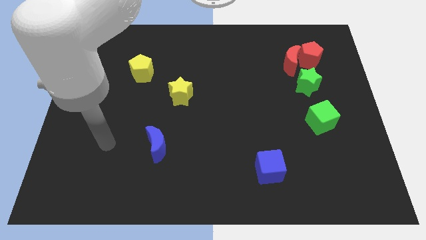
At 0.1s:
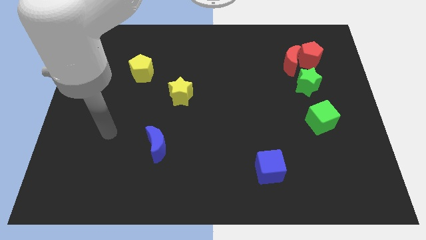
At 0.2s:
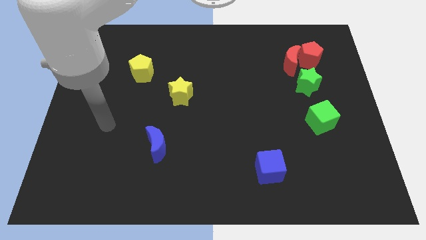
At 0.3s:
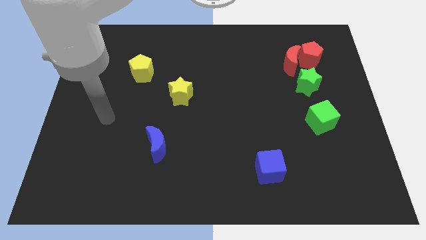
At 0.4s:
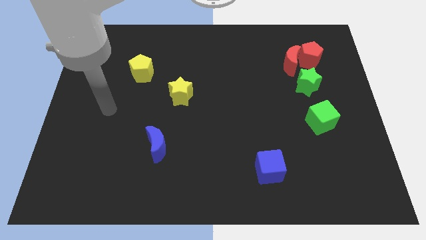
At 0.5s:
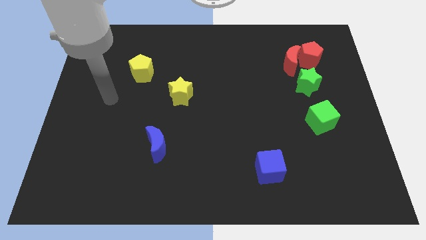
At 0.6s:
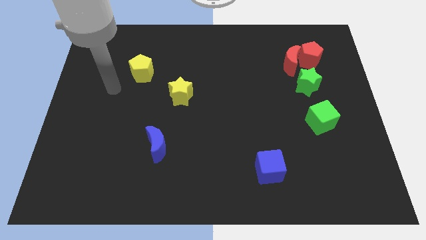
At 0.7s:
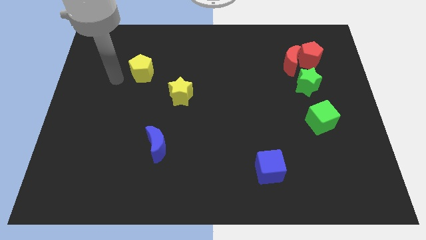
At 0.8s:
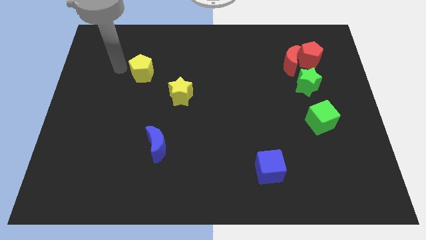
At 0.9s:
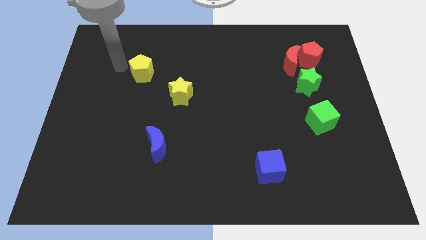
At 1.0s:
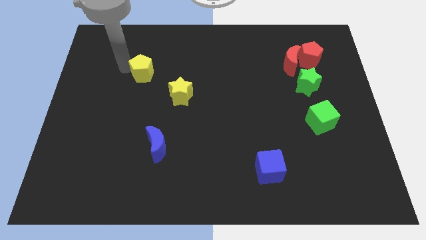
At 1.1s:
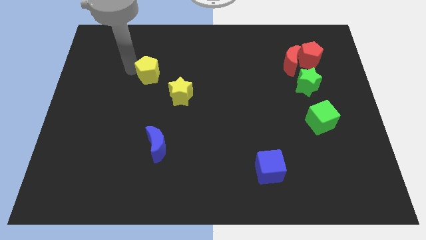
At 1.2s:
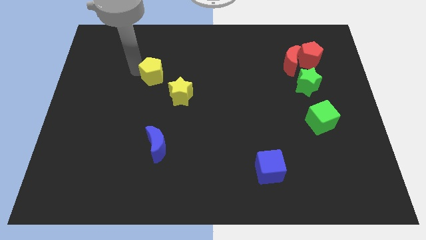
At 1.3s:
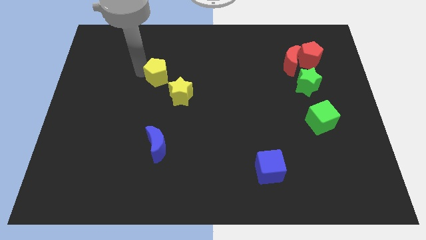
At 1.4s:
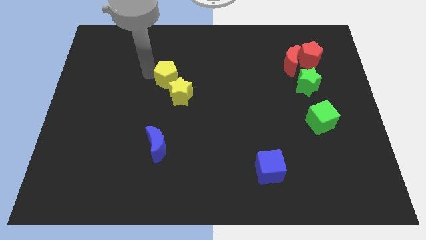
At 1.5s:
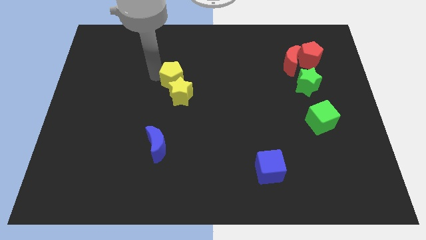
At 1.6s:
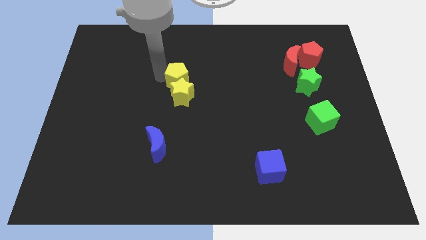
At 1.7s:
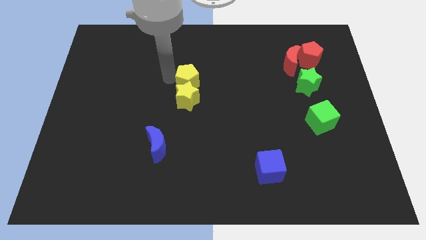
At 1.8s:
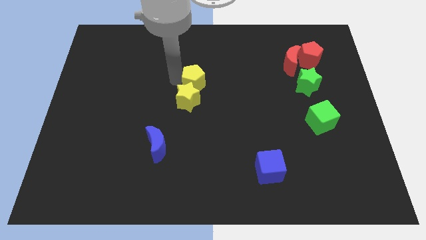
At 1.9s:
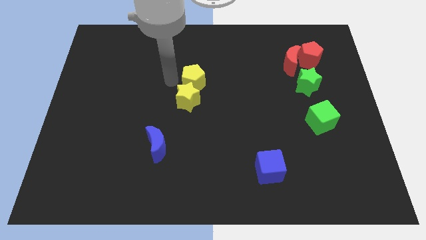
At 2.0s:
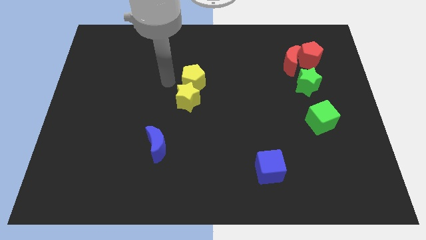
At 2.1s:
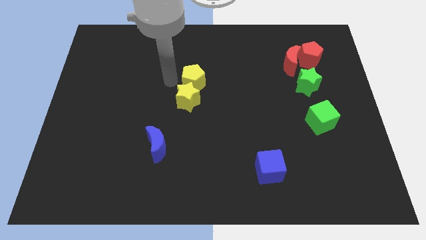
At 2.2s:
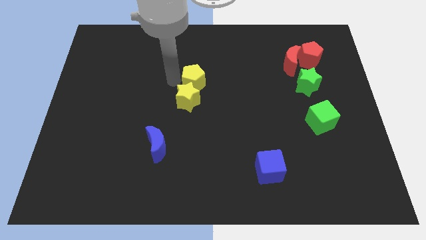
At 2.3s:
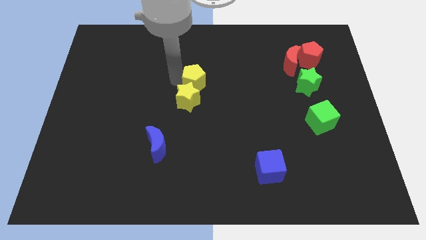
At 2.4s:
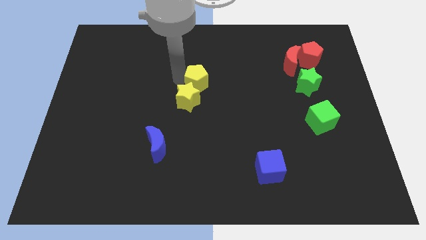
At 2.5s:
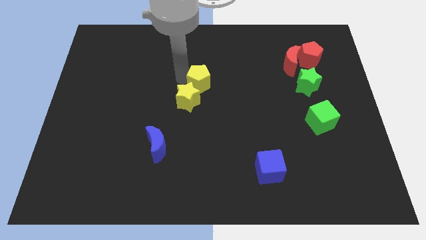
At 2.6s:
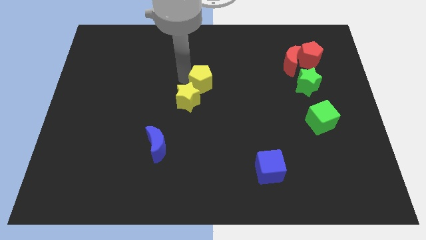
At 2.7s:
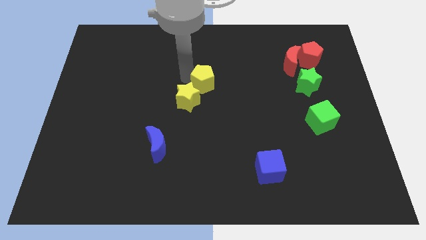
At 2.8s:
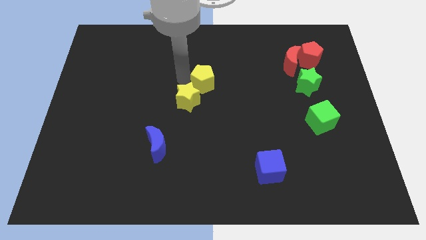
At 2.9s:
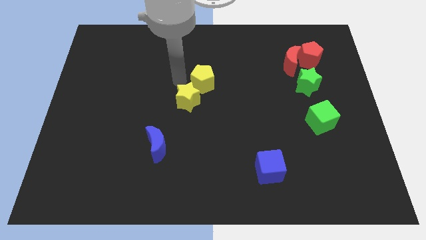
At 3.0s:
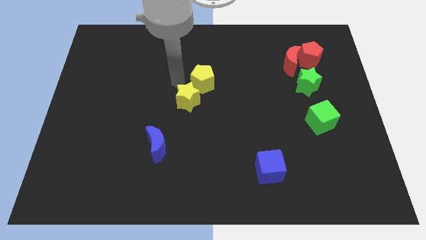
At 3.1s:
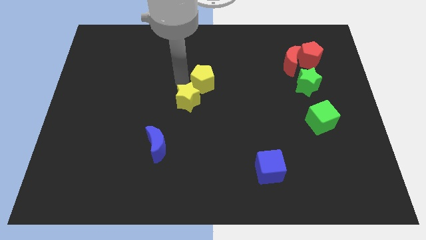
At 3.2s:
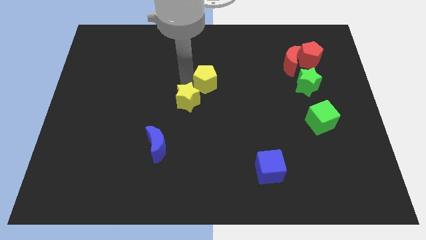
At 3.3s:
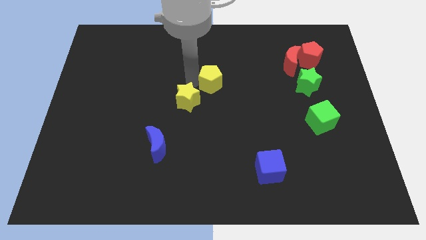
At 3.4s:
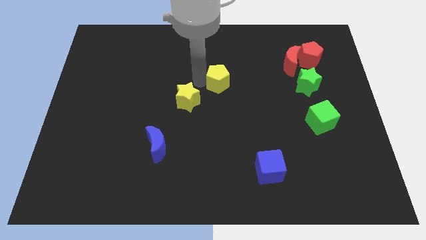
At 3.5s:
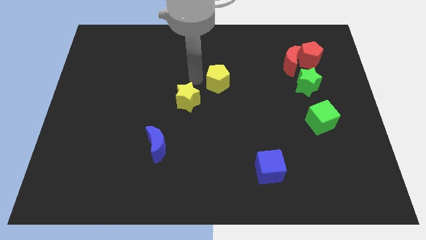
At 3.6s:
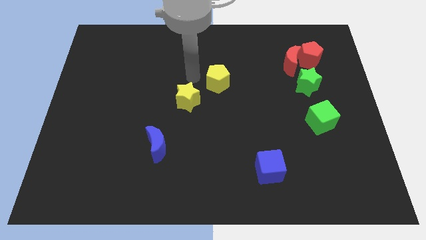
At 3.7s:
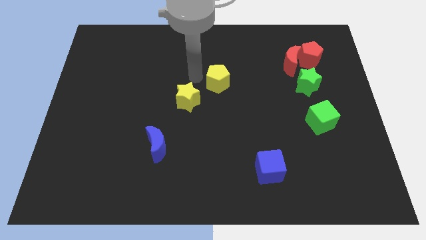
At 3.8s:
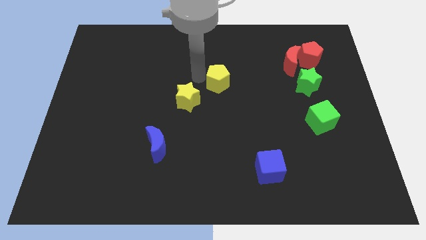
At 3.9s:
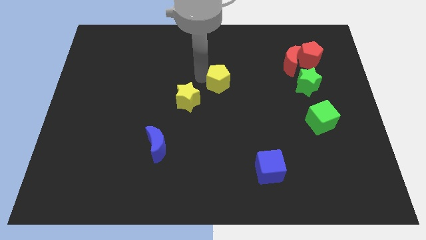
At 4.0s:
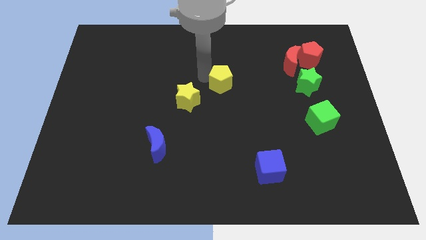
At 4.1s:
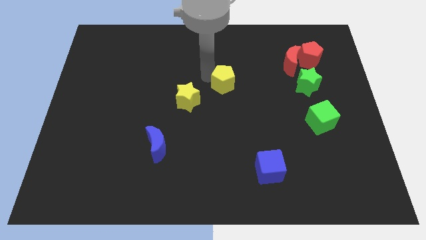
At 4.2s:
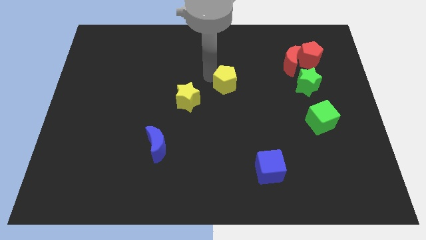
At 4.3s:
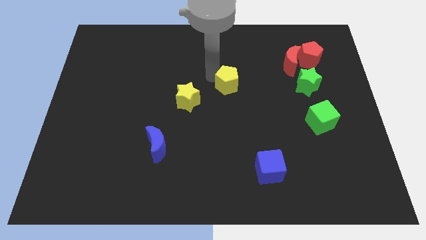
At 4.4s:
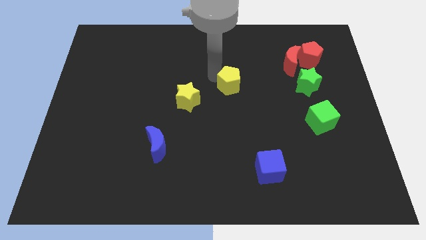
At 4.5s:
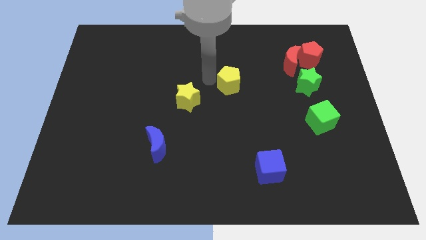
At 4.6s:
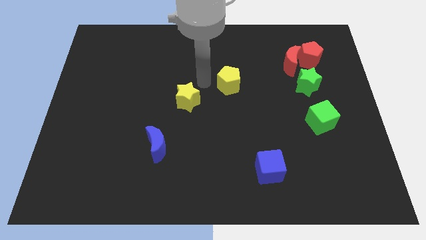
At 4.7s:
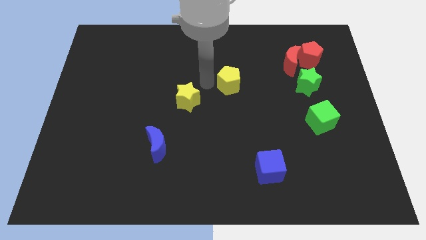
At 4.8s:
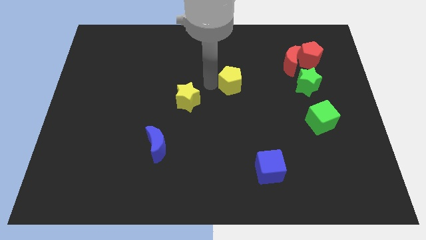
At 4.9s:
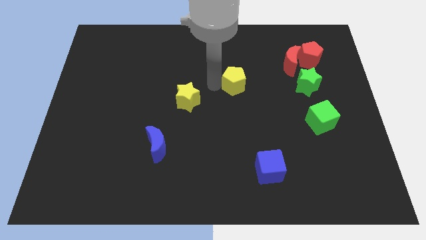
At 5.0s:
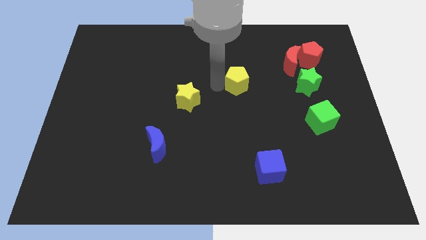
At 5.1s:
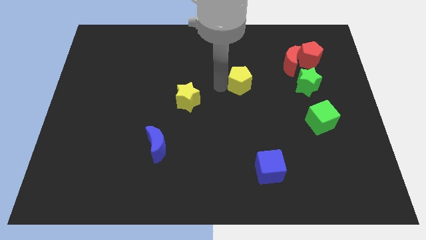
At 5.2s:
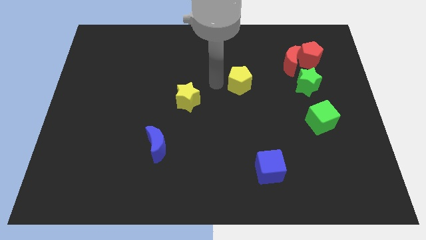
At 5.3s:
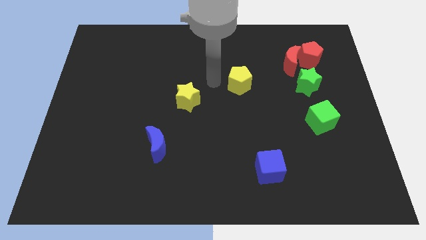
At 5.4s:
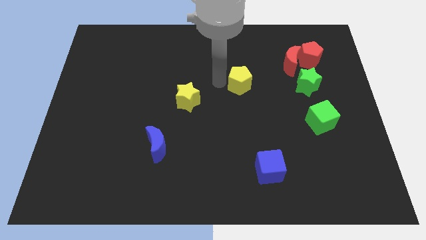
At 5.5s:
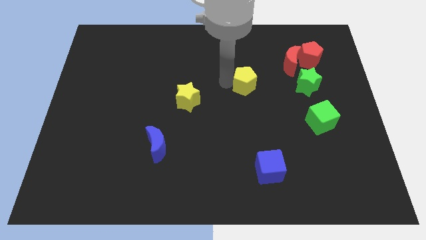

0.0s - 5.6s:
put the yellow pentagon just left of the green star

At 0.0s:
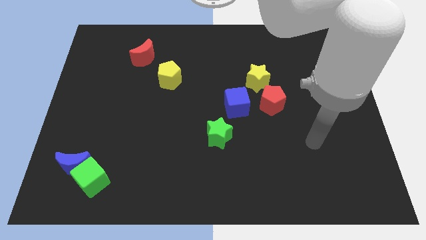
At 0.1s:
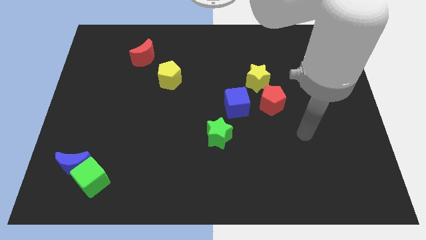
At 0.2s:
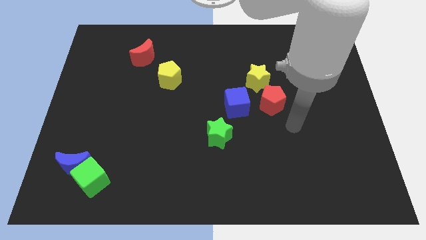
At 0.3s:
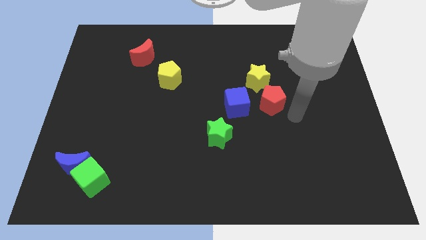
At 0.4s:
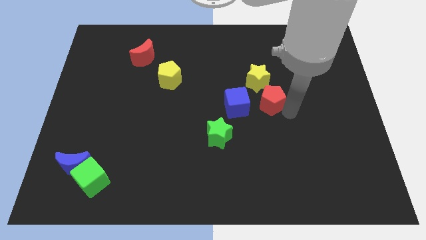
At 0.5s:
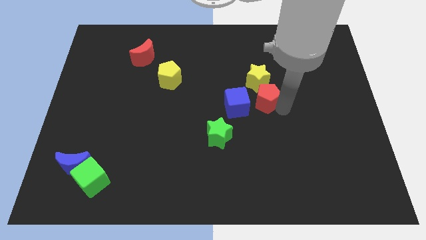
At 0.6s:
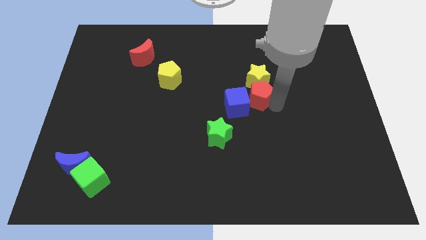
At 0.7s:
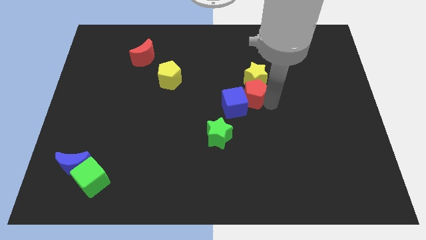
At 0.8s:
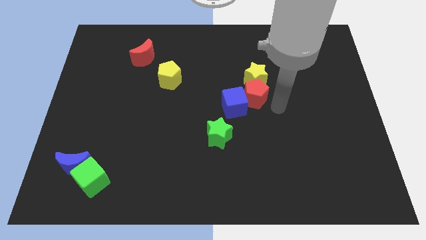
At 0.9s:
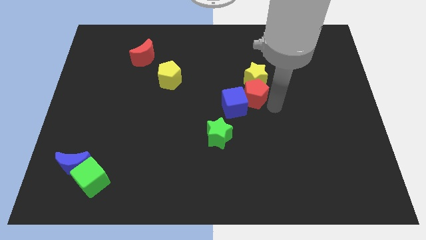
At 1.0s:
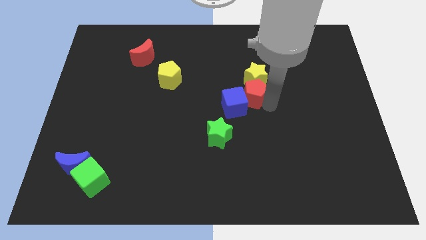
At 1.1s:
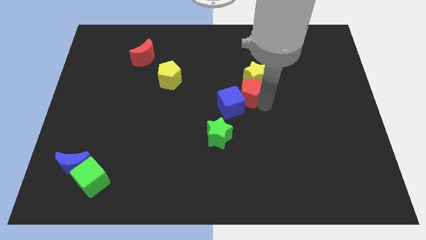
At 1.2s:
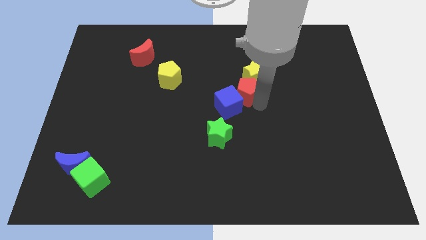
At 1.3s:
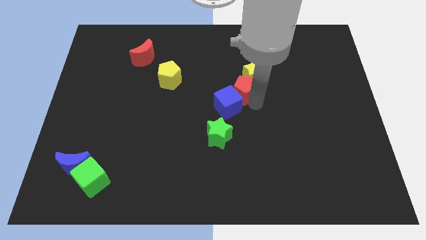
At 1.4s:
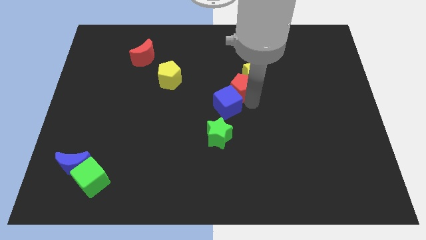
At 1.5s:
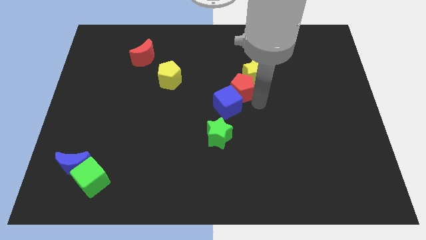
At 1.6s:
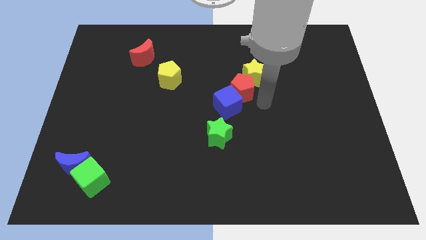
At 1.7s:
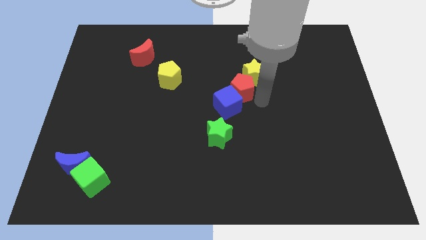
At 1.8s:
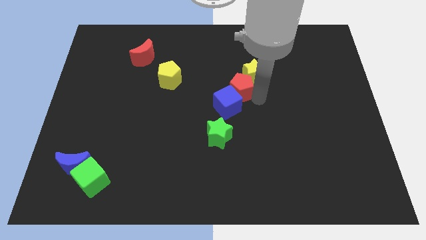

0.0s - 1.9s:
push the red pentagon just left of the yellow star
